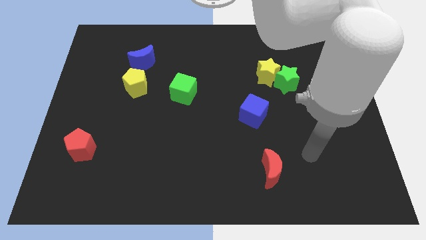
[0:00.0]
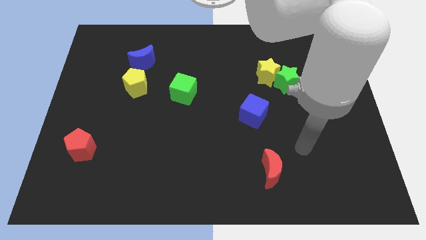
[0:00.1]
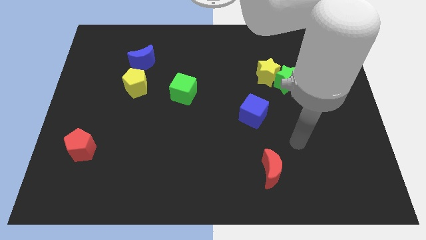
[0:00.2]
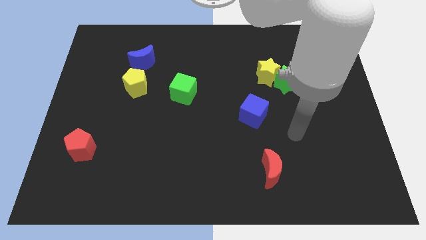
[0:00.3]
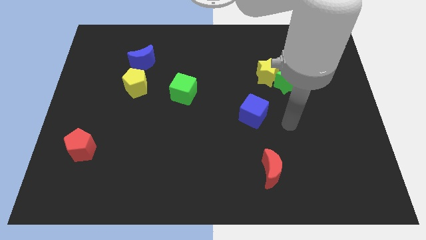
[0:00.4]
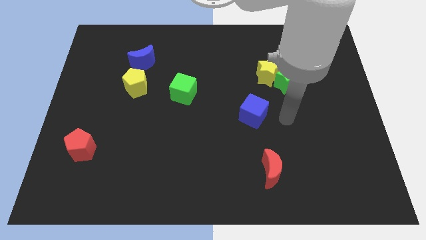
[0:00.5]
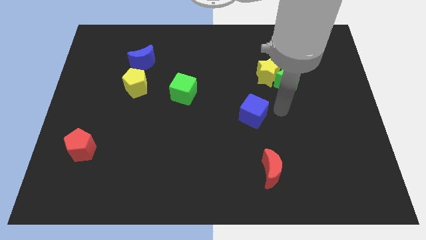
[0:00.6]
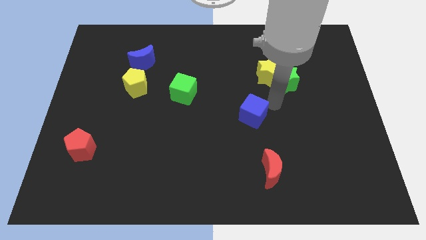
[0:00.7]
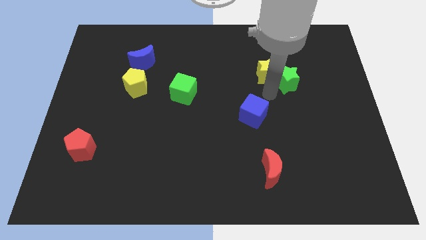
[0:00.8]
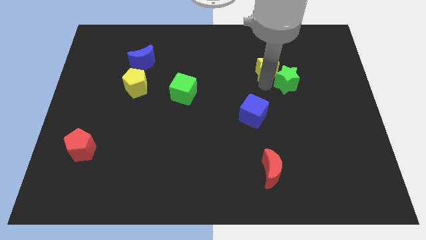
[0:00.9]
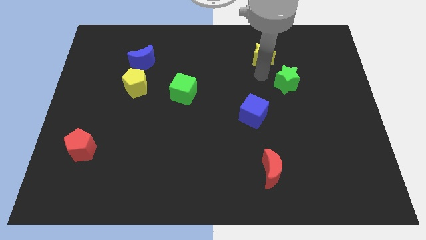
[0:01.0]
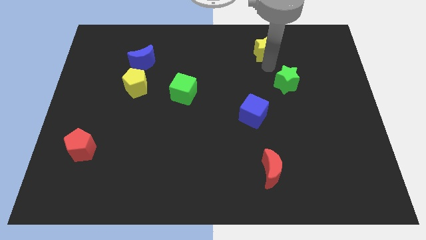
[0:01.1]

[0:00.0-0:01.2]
separate the green star from the yellow star

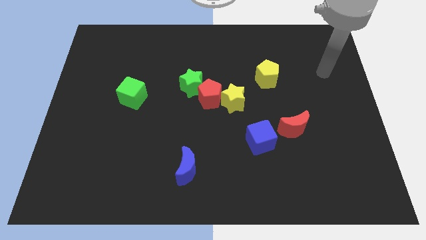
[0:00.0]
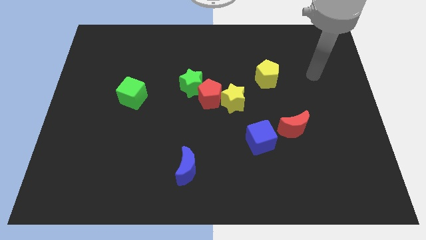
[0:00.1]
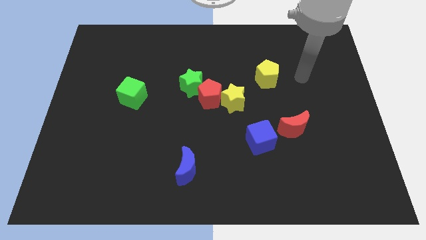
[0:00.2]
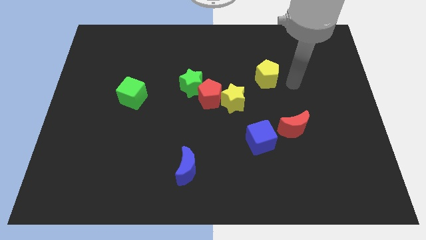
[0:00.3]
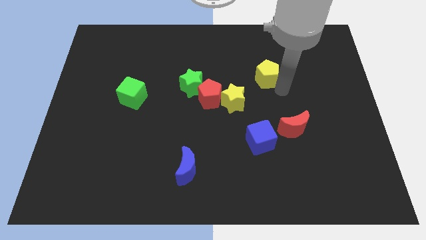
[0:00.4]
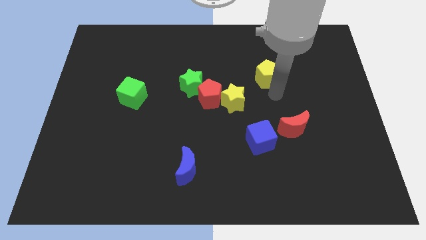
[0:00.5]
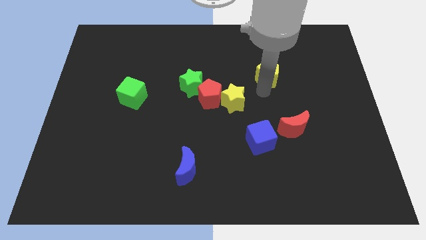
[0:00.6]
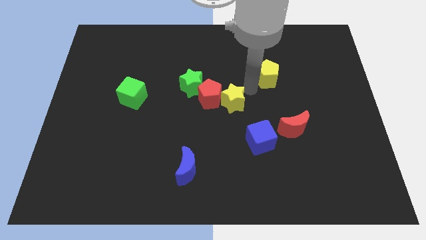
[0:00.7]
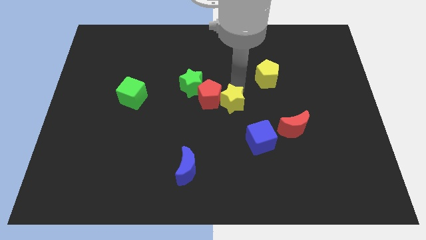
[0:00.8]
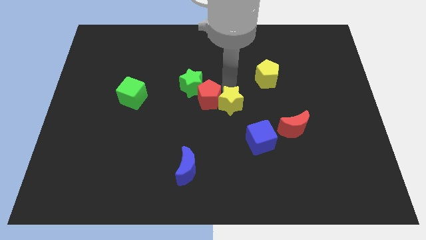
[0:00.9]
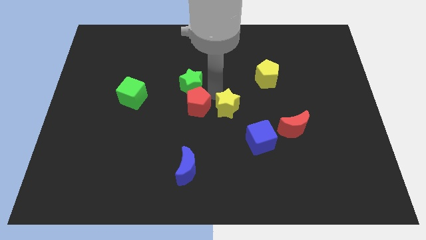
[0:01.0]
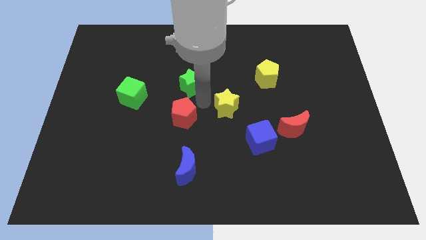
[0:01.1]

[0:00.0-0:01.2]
separate the yellow star from the red pentagon

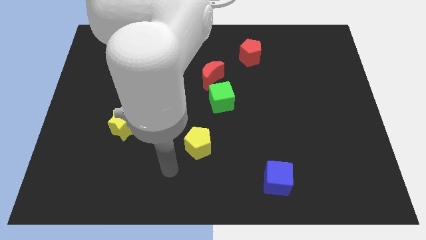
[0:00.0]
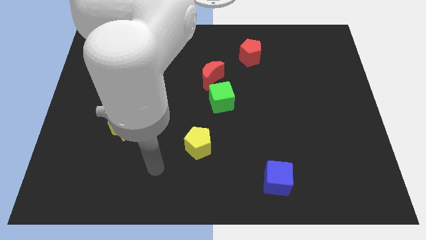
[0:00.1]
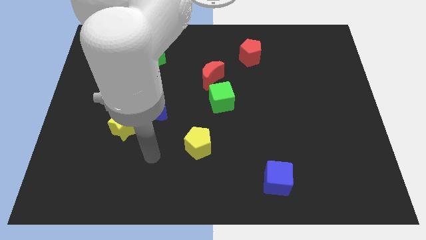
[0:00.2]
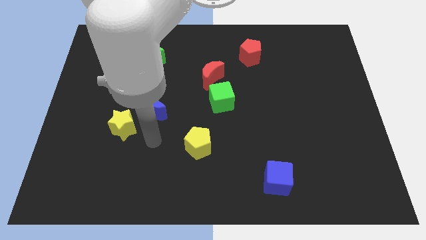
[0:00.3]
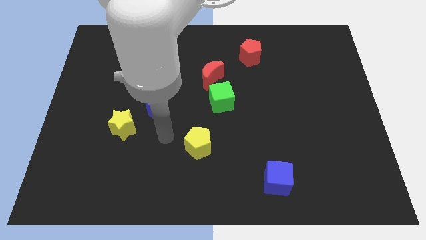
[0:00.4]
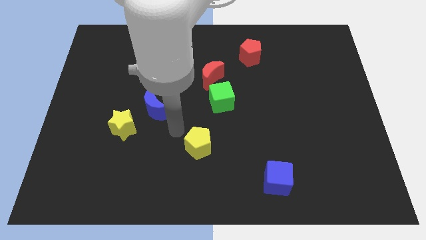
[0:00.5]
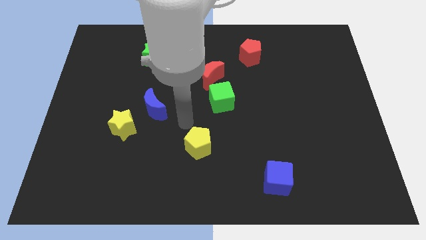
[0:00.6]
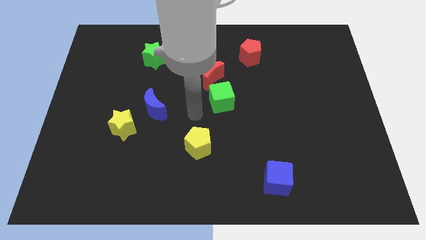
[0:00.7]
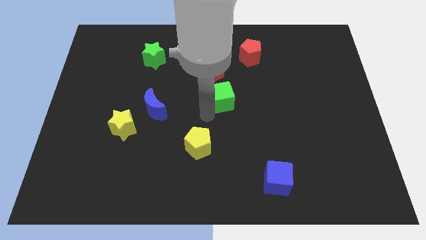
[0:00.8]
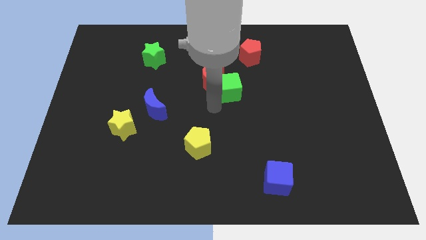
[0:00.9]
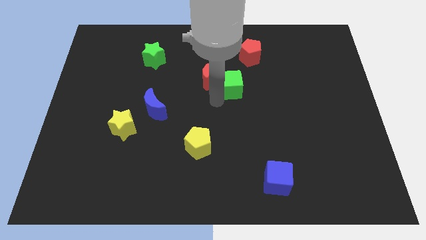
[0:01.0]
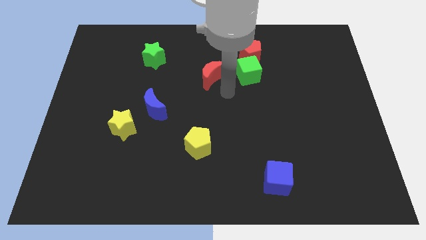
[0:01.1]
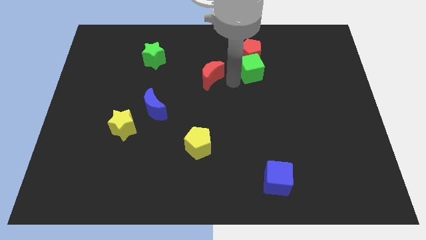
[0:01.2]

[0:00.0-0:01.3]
separate the red moon from the green cube

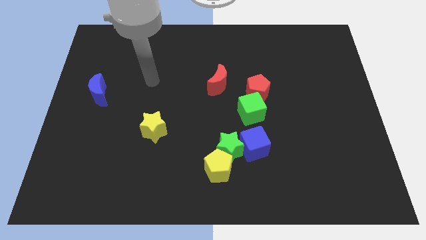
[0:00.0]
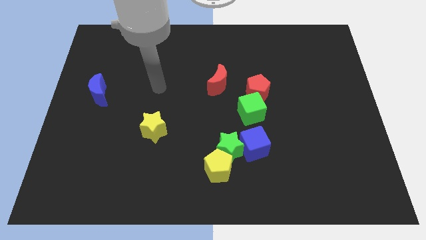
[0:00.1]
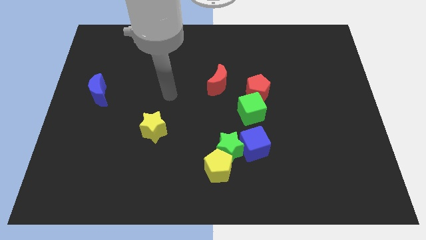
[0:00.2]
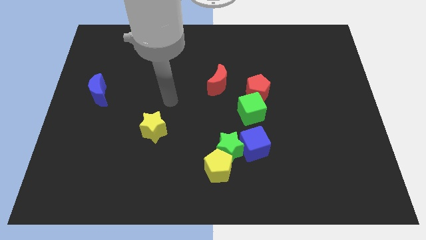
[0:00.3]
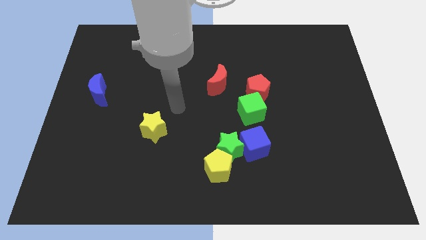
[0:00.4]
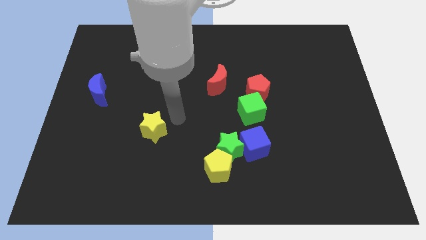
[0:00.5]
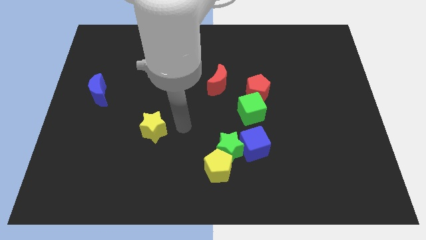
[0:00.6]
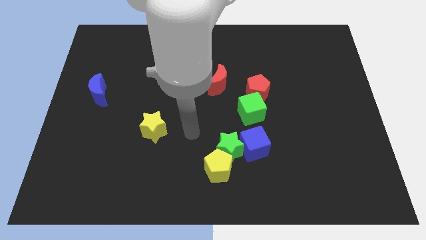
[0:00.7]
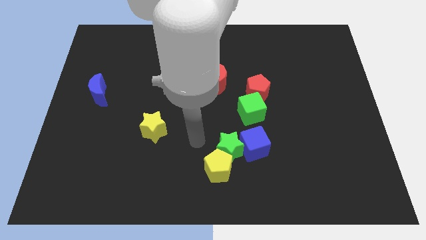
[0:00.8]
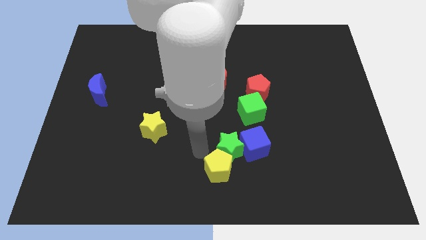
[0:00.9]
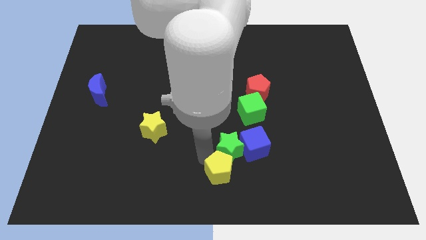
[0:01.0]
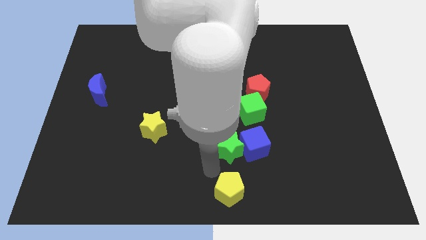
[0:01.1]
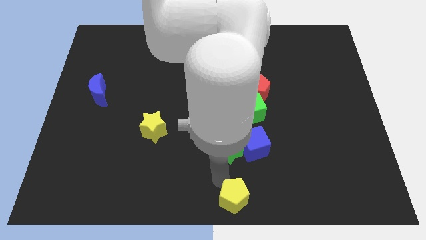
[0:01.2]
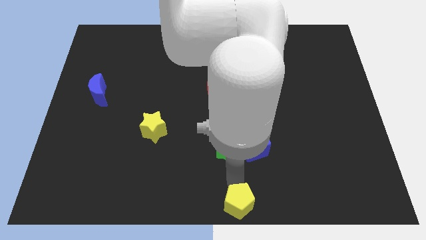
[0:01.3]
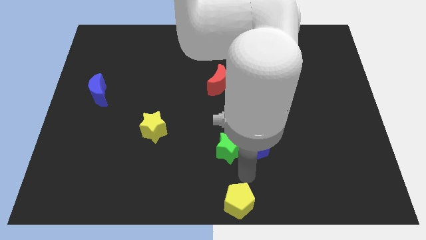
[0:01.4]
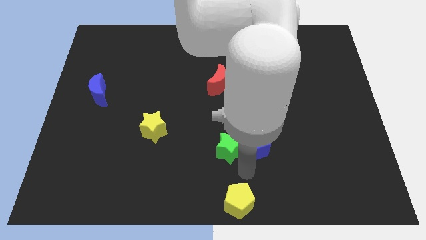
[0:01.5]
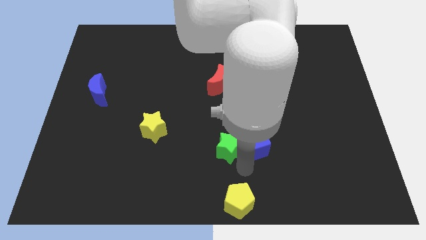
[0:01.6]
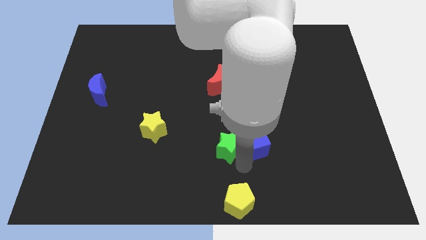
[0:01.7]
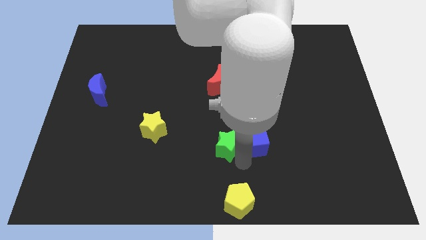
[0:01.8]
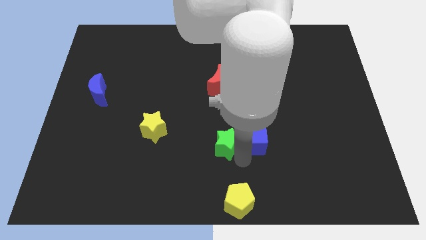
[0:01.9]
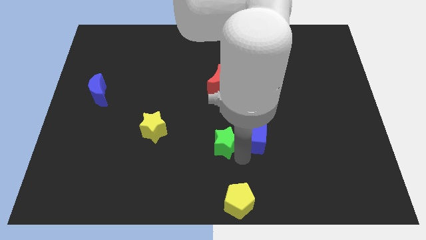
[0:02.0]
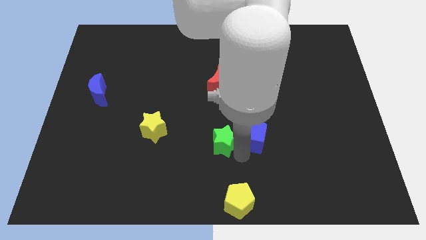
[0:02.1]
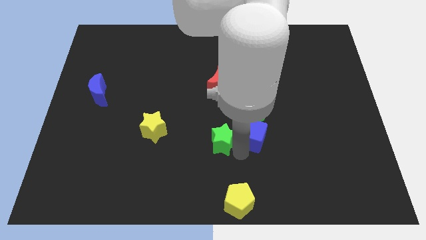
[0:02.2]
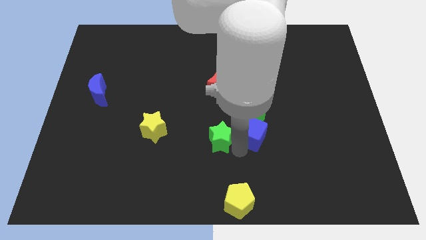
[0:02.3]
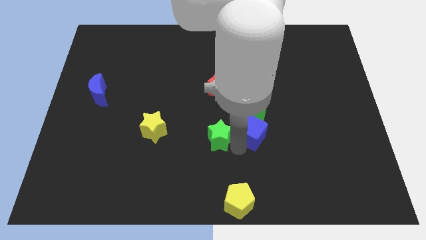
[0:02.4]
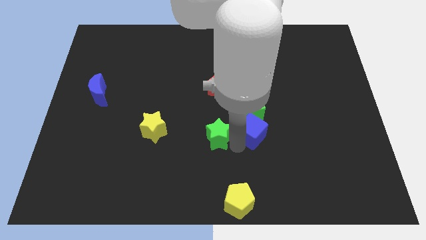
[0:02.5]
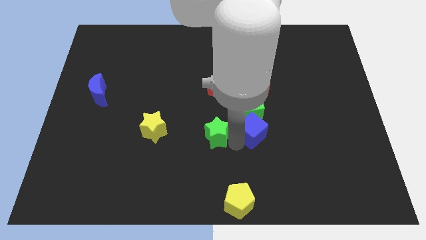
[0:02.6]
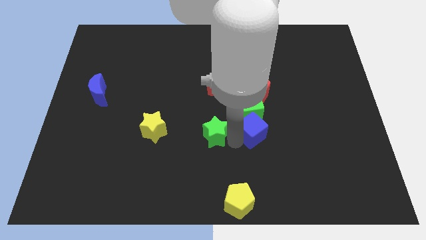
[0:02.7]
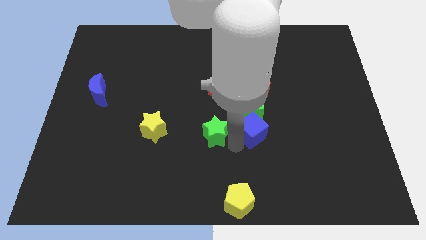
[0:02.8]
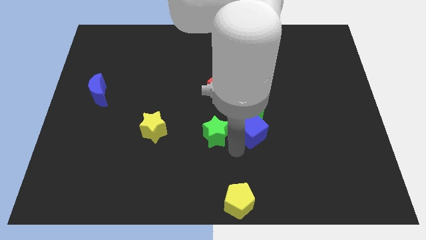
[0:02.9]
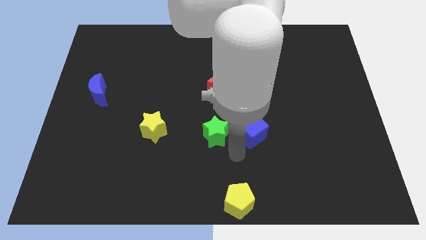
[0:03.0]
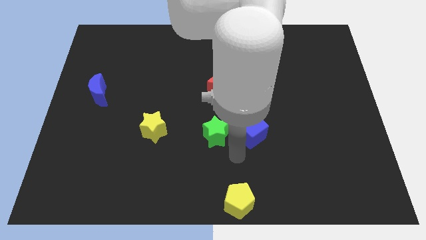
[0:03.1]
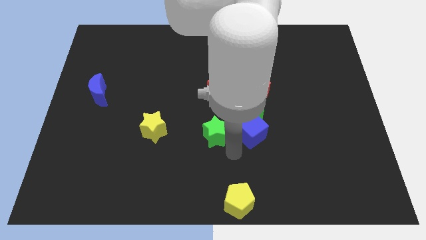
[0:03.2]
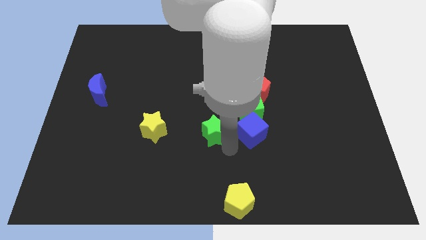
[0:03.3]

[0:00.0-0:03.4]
separate the green star from the yellow pentagon and blue cube

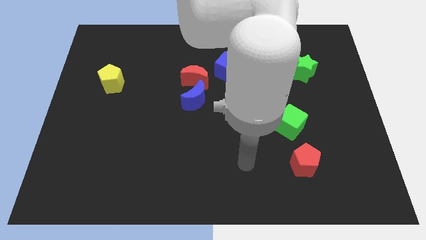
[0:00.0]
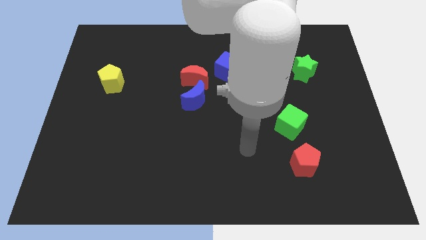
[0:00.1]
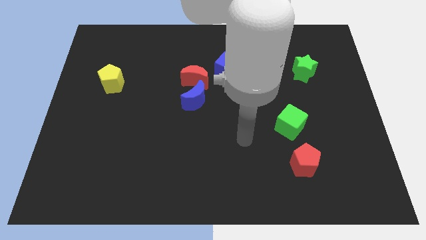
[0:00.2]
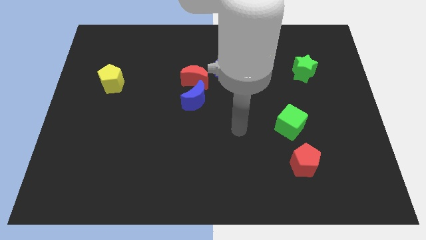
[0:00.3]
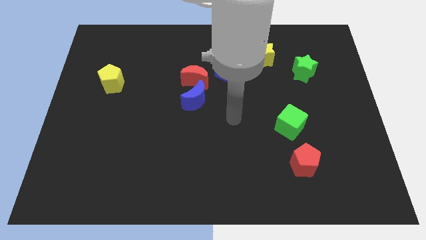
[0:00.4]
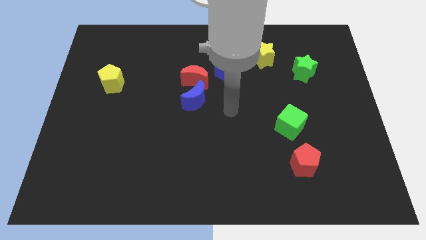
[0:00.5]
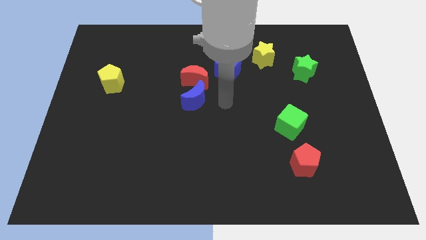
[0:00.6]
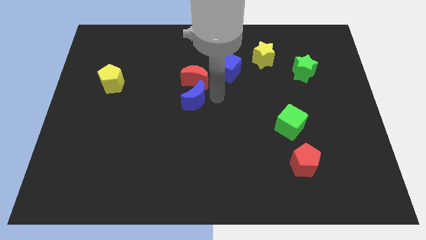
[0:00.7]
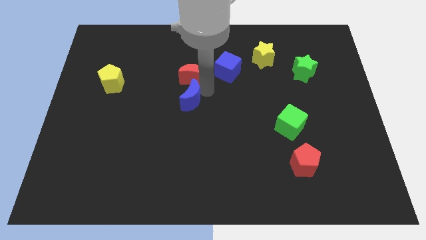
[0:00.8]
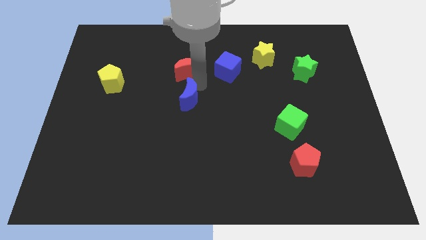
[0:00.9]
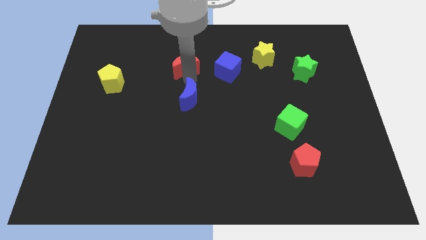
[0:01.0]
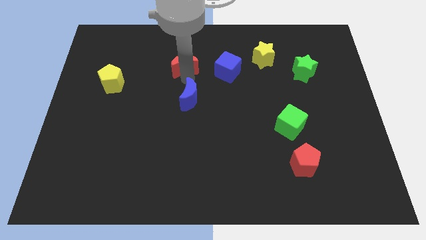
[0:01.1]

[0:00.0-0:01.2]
pull the blue moon apart from the red moon

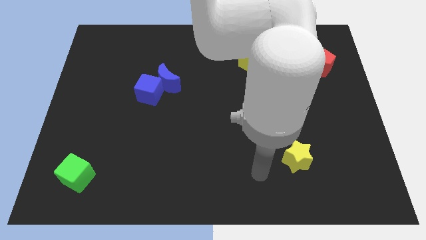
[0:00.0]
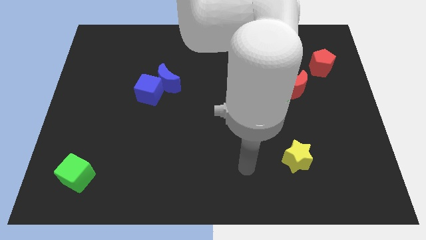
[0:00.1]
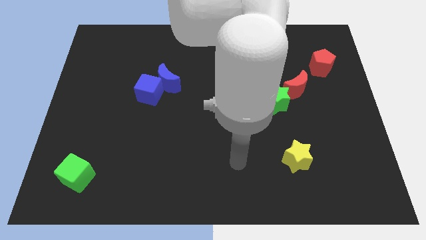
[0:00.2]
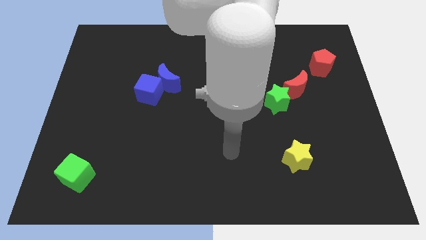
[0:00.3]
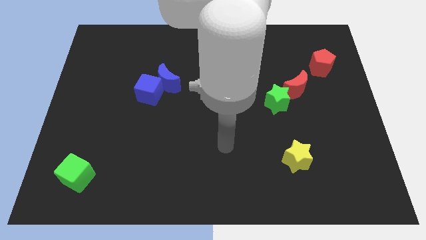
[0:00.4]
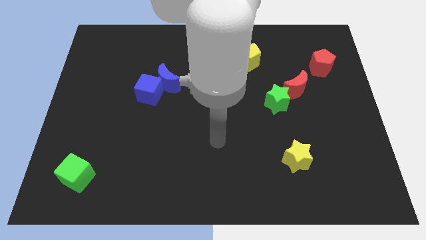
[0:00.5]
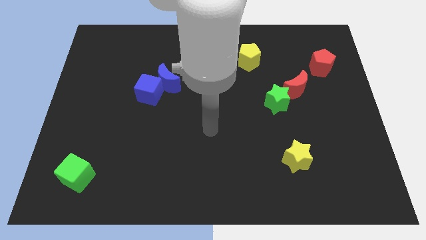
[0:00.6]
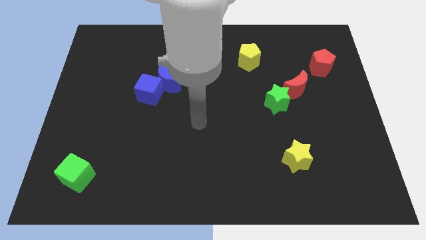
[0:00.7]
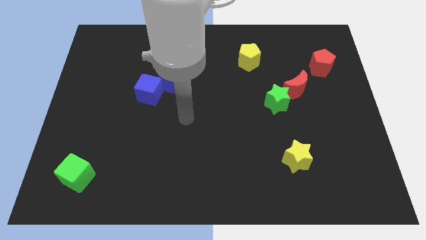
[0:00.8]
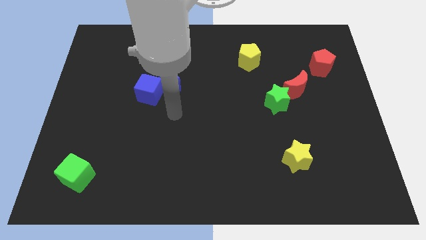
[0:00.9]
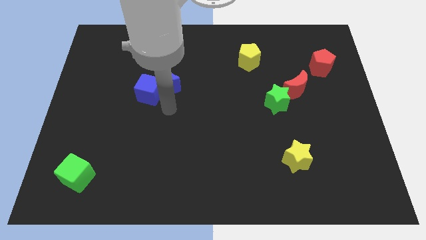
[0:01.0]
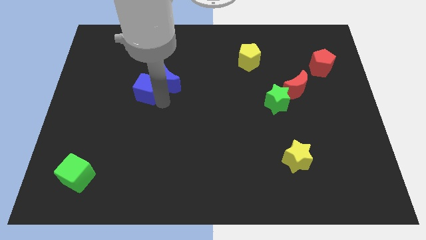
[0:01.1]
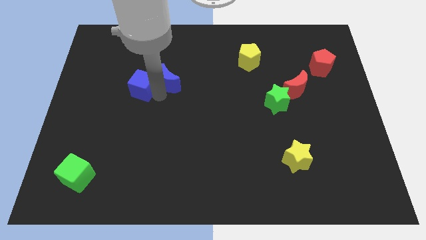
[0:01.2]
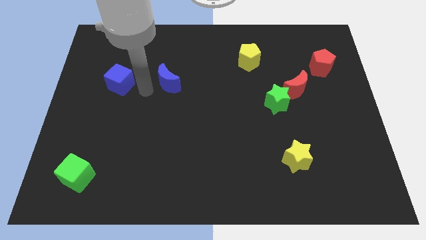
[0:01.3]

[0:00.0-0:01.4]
pull the blue moon apart from the blue cube
